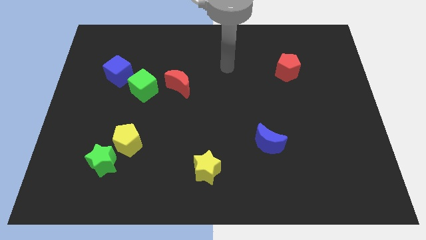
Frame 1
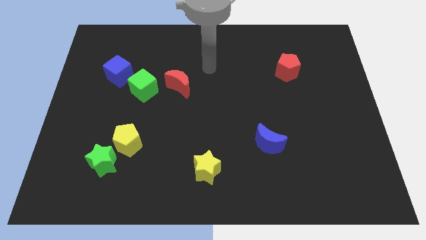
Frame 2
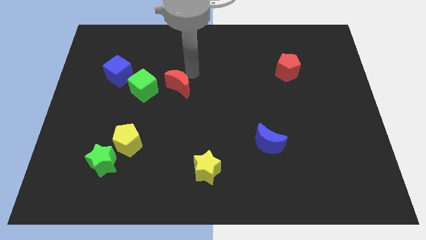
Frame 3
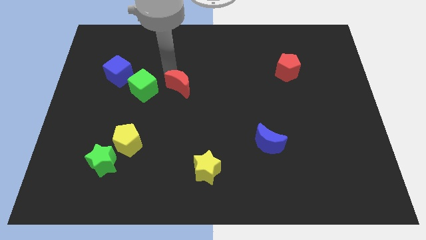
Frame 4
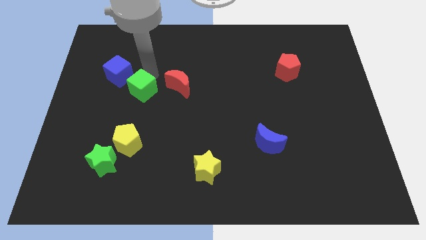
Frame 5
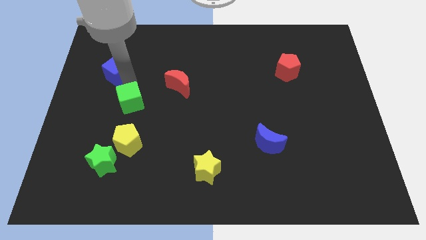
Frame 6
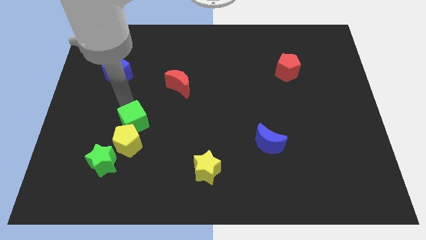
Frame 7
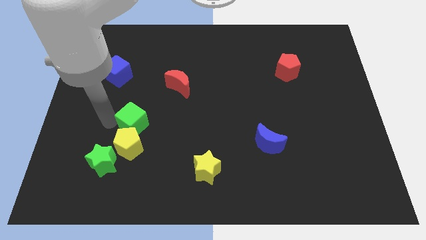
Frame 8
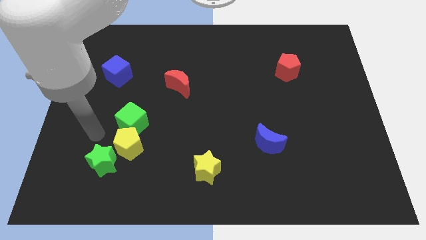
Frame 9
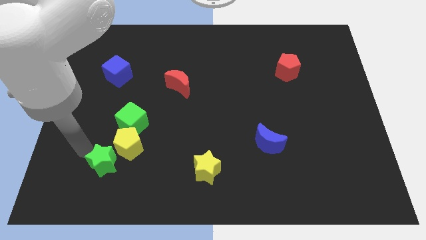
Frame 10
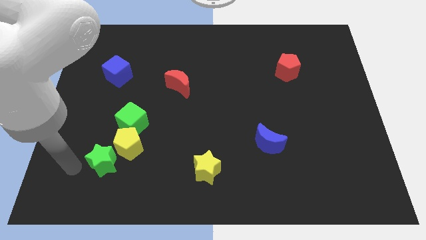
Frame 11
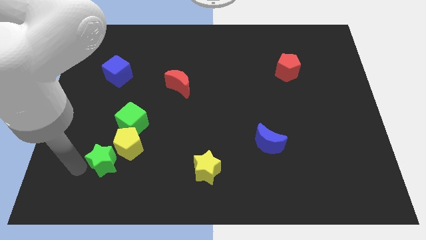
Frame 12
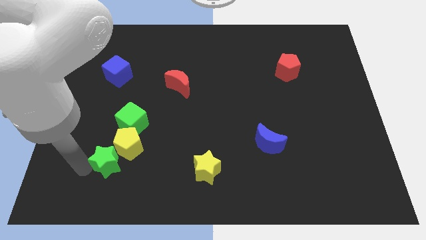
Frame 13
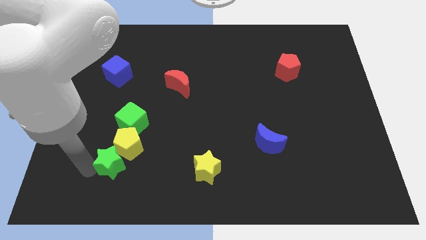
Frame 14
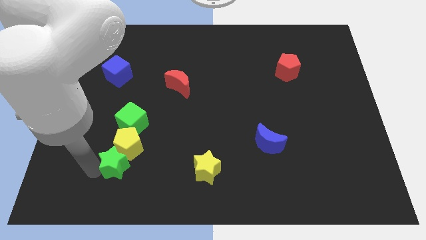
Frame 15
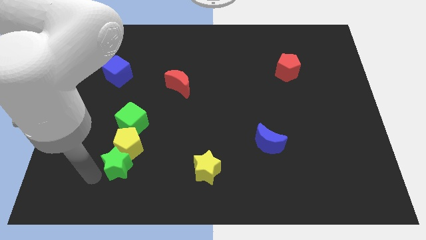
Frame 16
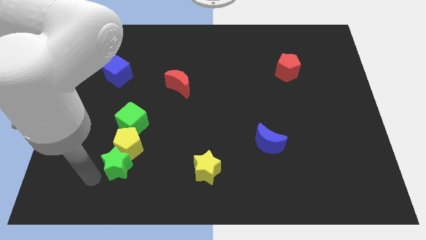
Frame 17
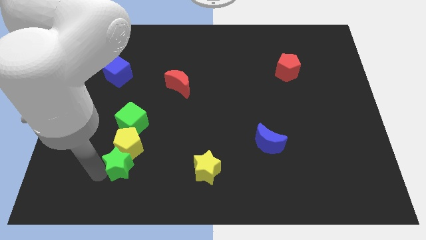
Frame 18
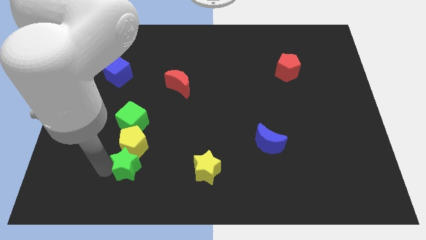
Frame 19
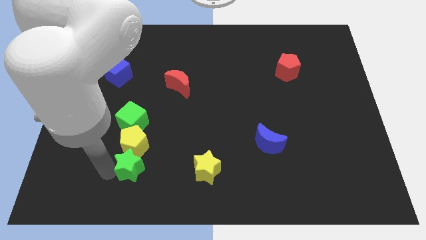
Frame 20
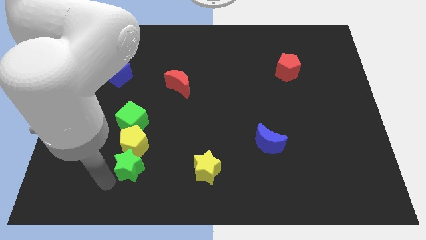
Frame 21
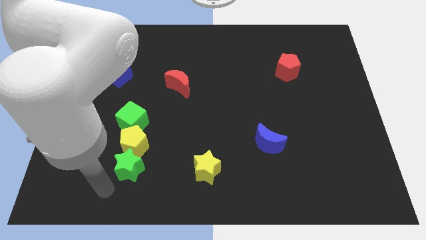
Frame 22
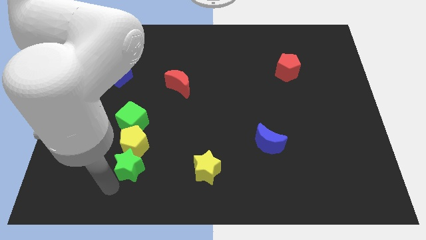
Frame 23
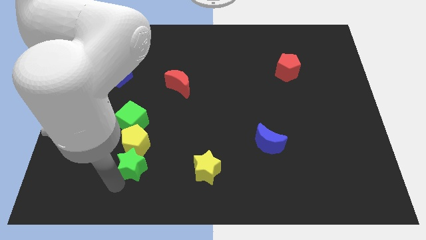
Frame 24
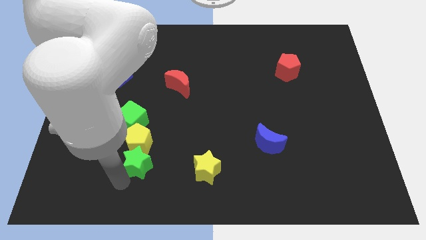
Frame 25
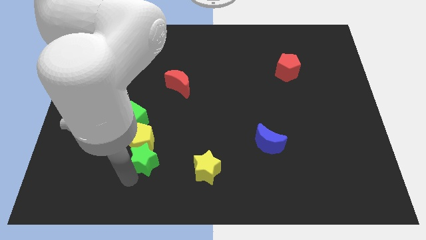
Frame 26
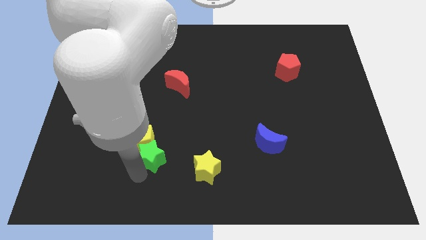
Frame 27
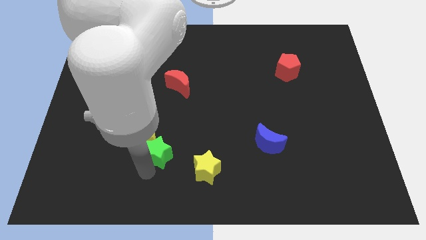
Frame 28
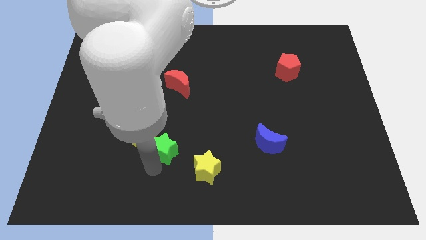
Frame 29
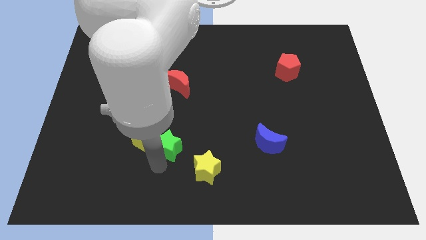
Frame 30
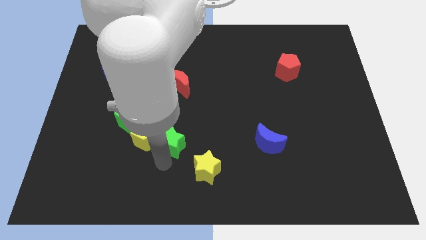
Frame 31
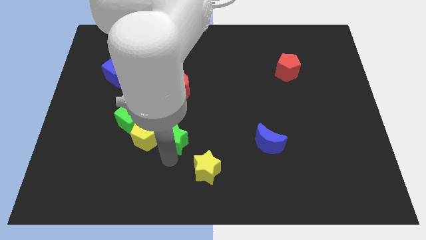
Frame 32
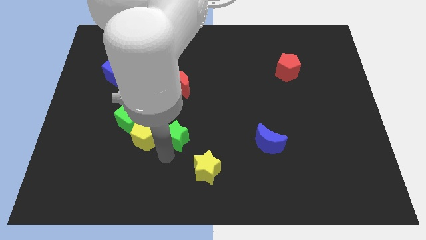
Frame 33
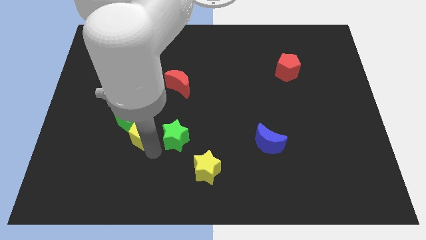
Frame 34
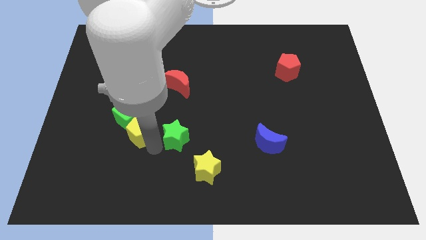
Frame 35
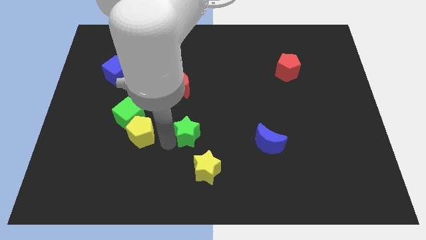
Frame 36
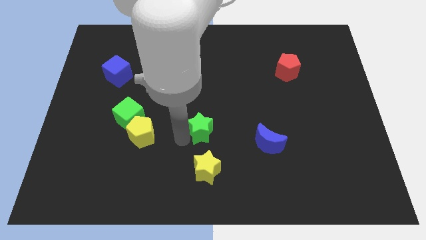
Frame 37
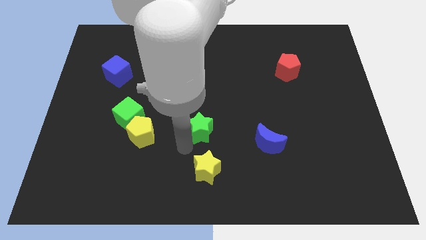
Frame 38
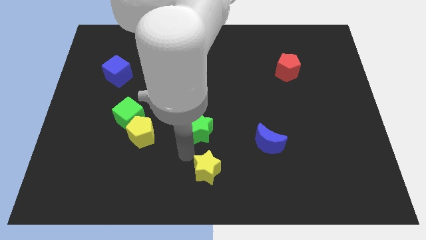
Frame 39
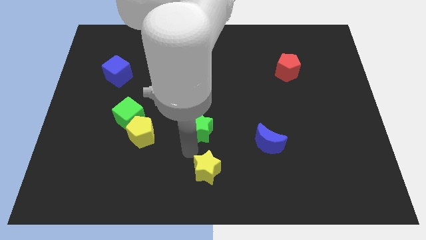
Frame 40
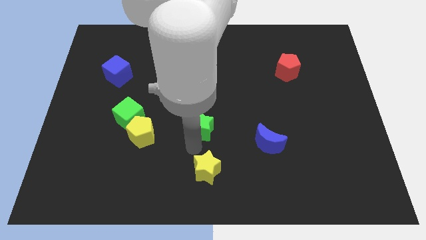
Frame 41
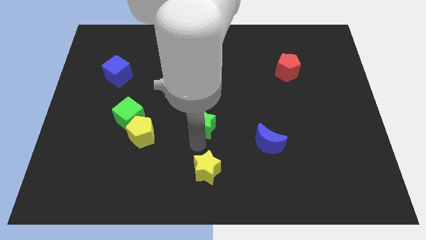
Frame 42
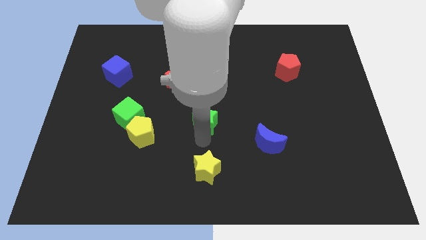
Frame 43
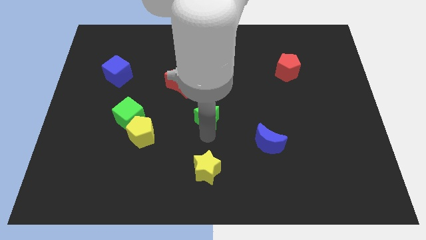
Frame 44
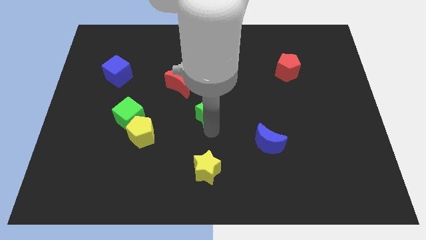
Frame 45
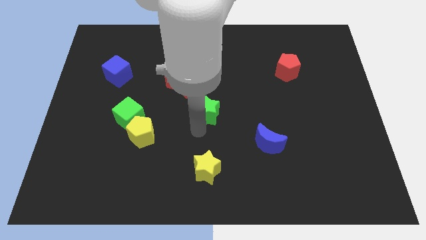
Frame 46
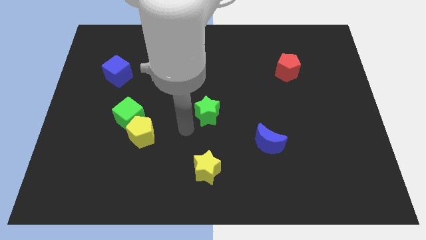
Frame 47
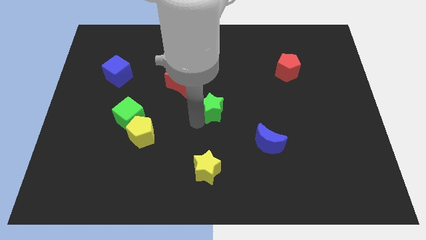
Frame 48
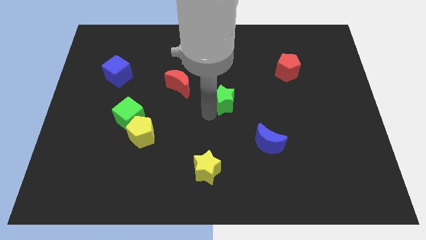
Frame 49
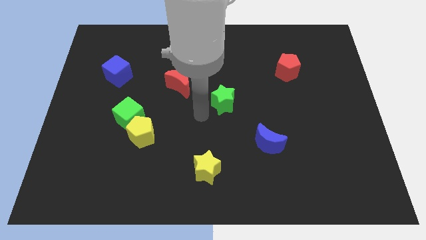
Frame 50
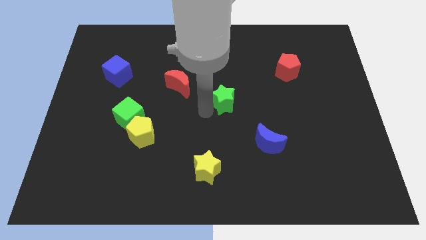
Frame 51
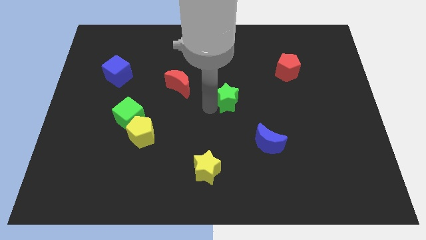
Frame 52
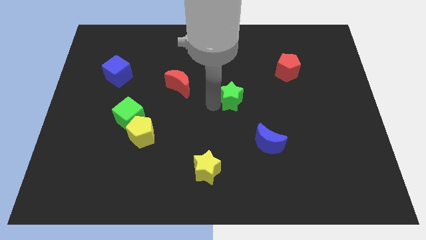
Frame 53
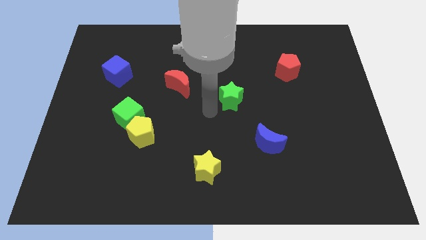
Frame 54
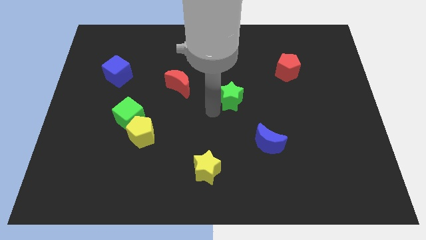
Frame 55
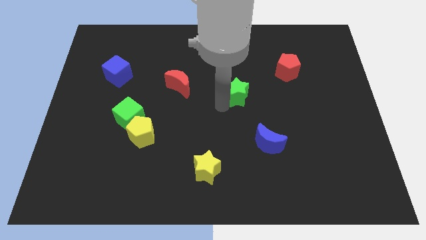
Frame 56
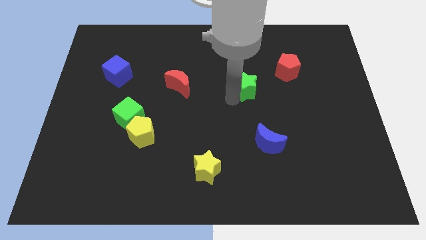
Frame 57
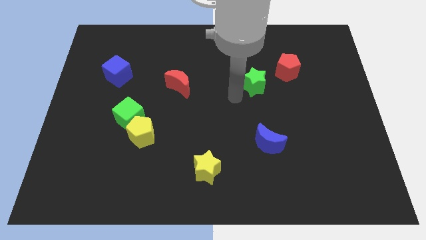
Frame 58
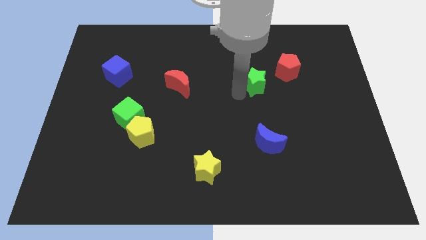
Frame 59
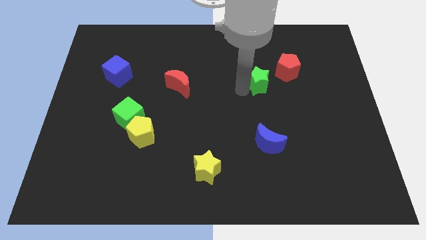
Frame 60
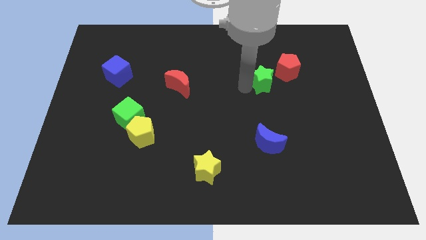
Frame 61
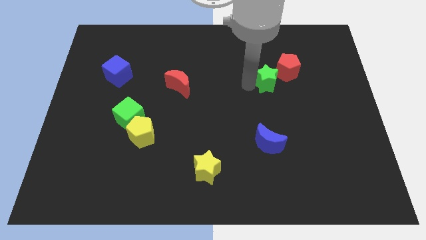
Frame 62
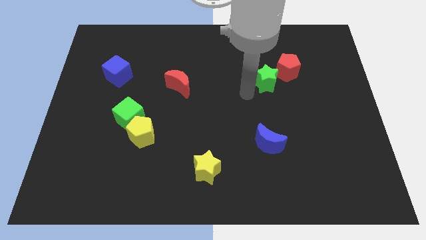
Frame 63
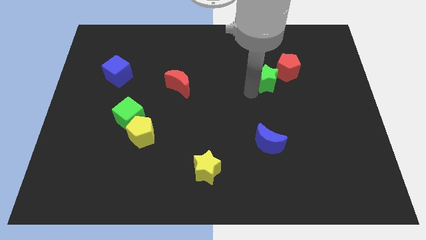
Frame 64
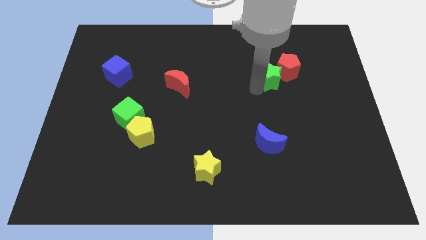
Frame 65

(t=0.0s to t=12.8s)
slide the green star close to the red pentagon

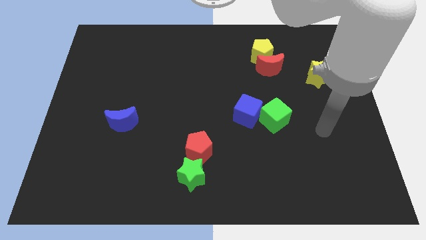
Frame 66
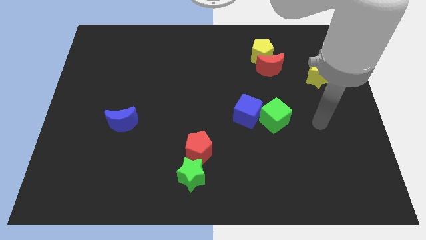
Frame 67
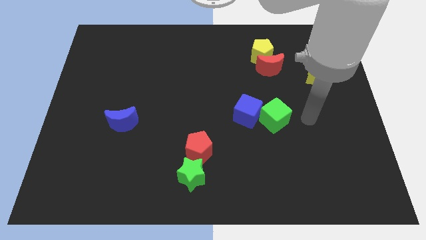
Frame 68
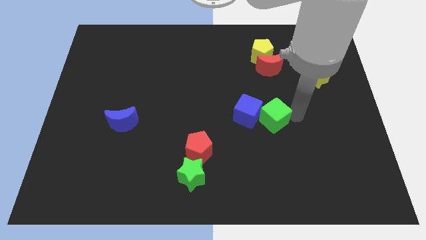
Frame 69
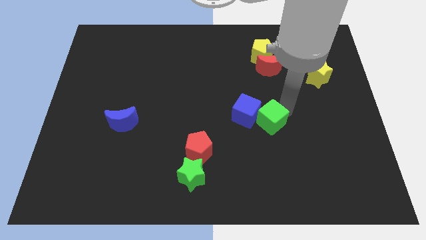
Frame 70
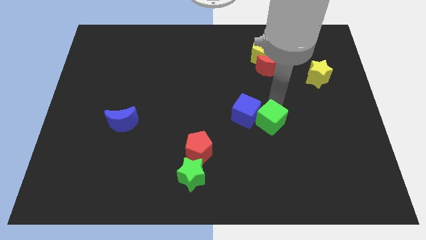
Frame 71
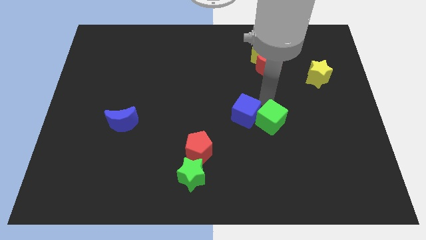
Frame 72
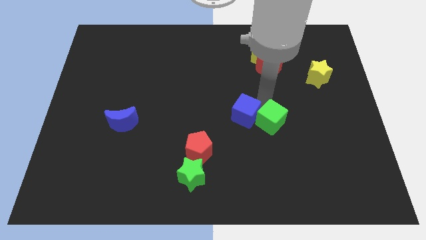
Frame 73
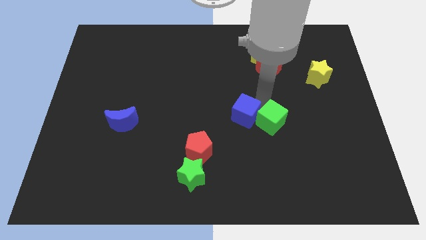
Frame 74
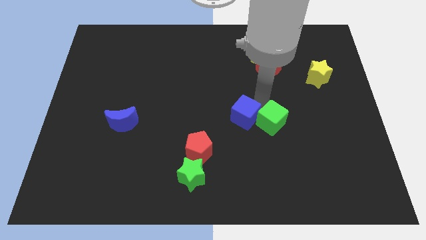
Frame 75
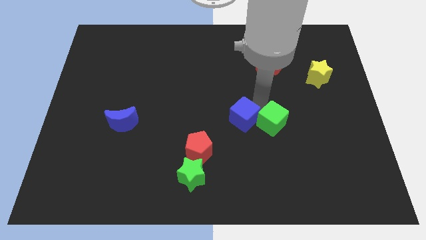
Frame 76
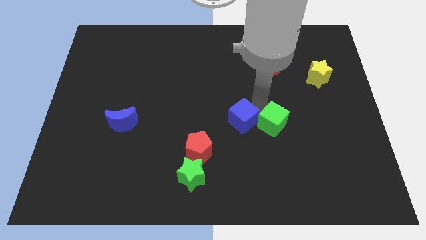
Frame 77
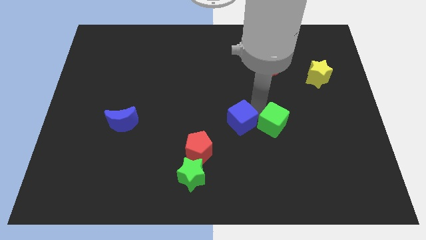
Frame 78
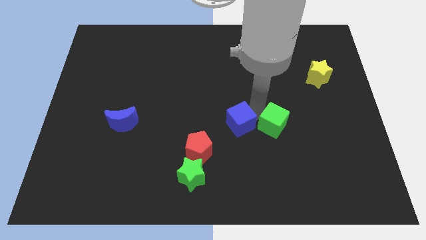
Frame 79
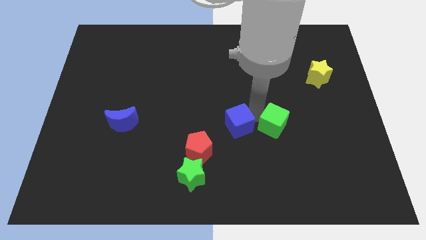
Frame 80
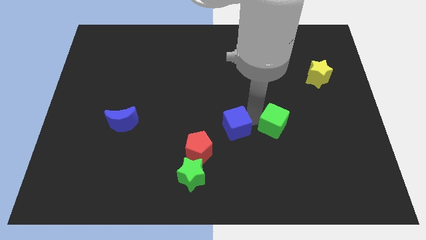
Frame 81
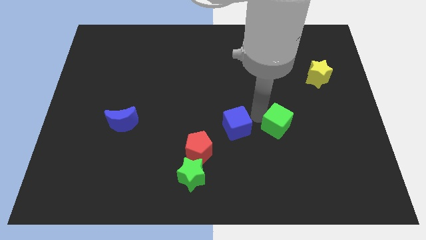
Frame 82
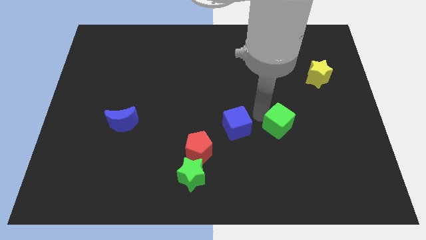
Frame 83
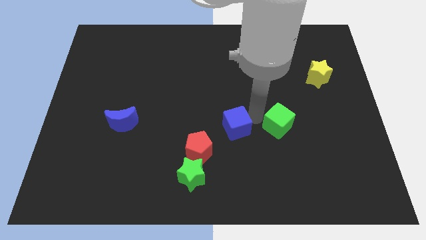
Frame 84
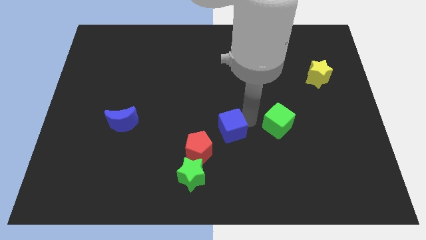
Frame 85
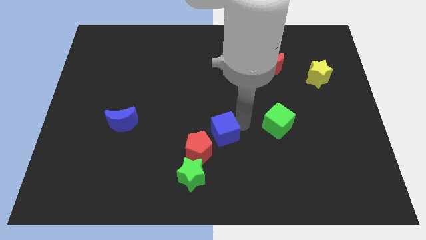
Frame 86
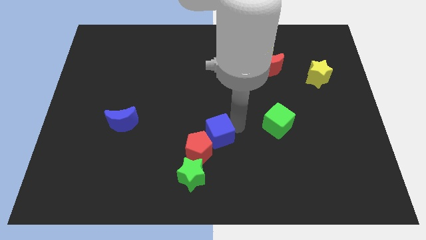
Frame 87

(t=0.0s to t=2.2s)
slide the blue cube close to the red pentagon
